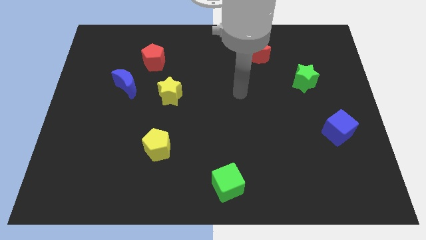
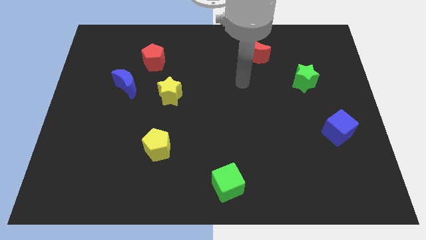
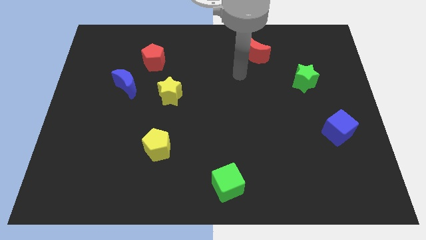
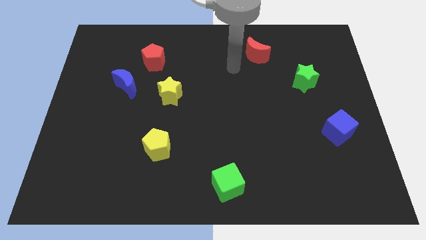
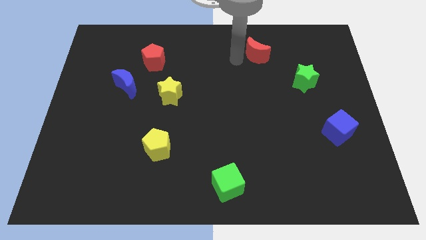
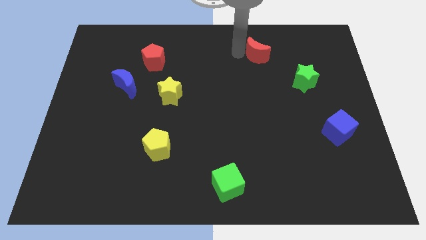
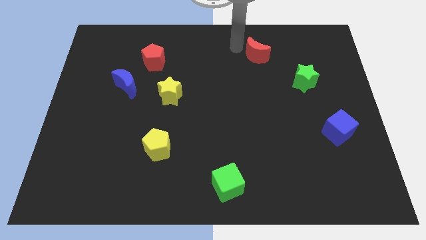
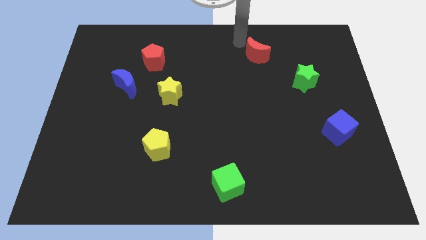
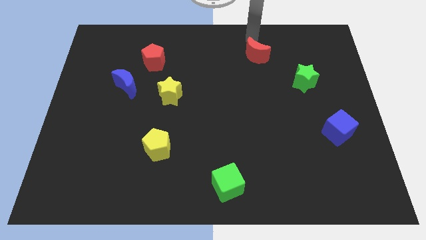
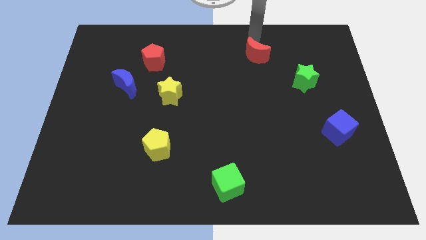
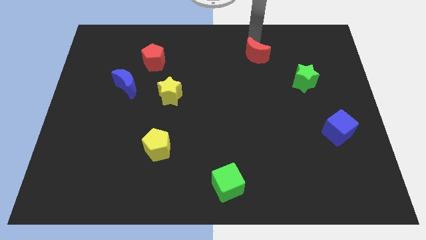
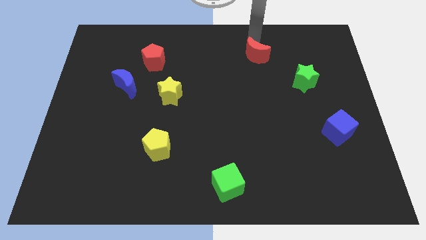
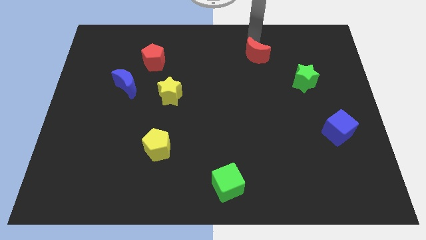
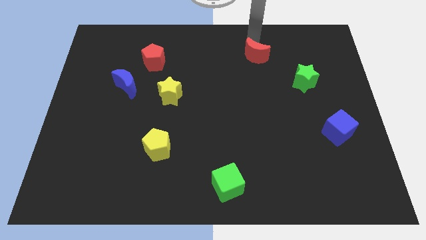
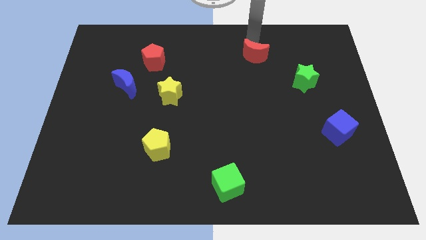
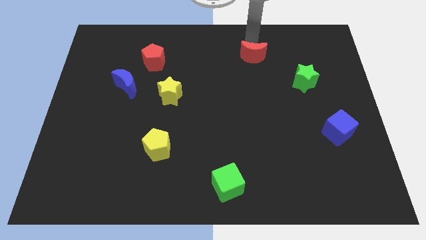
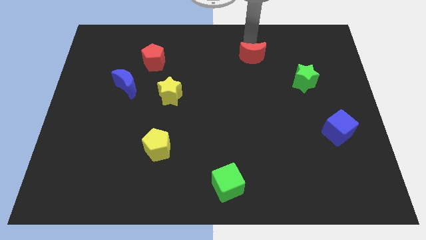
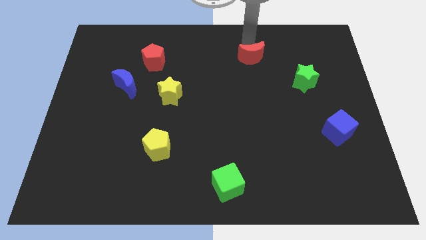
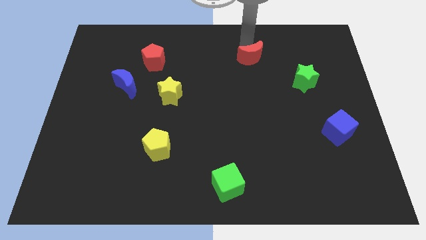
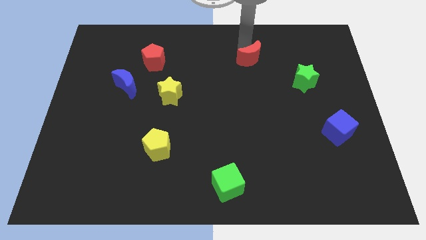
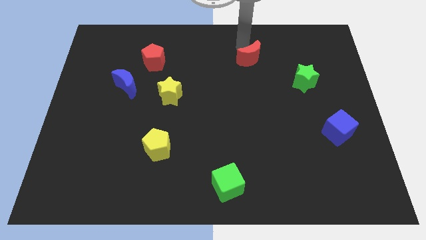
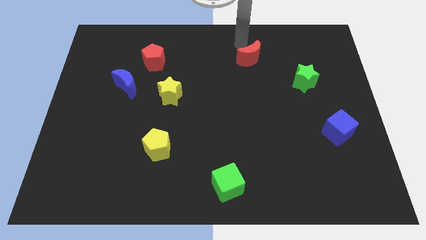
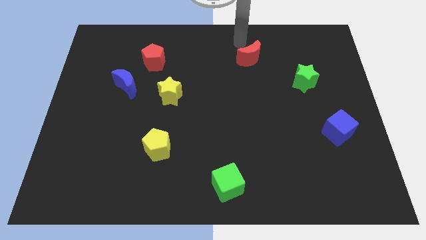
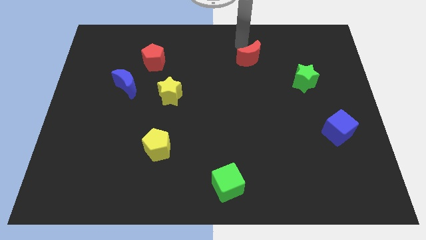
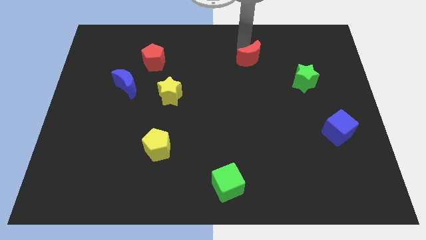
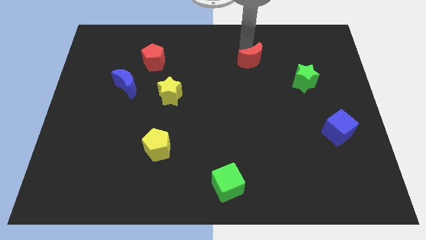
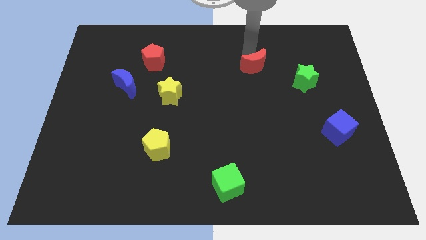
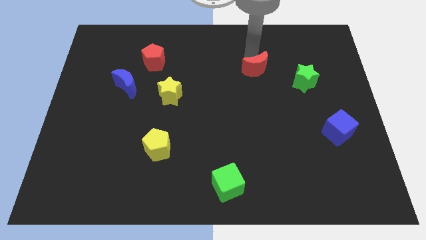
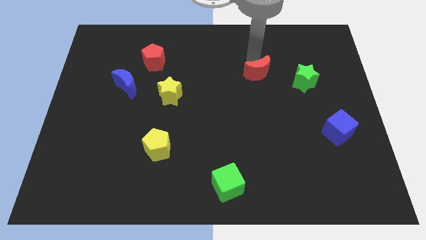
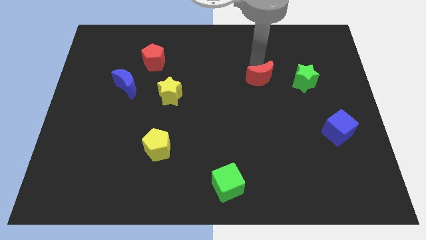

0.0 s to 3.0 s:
move the red moon downwards a little

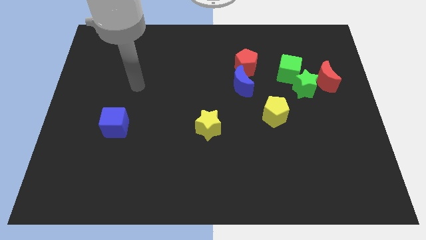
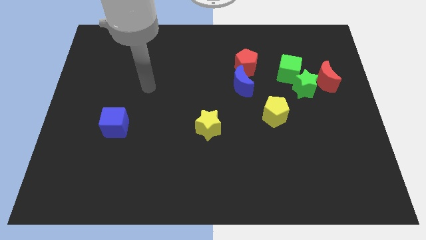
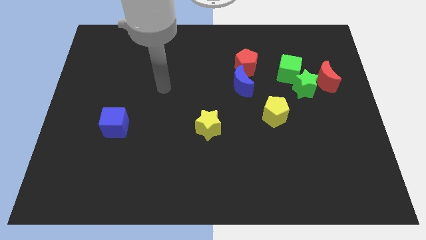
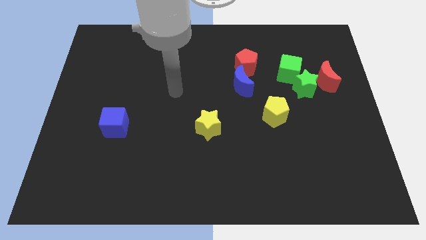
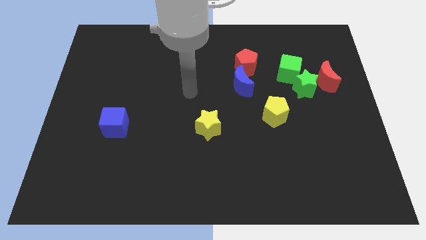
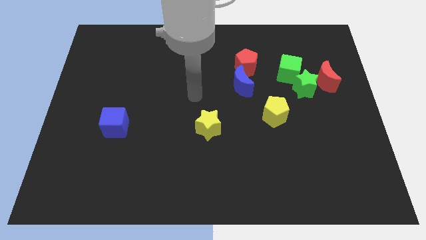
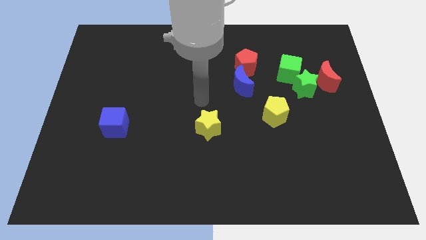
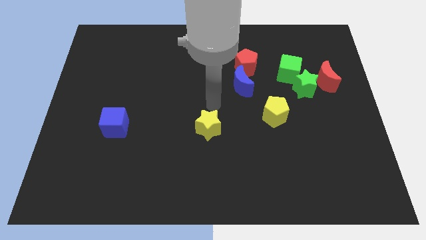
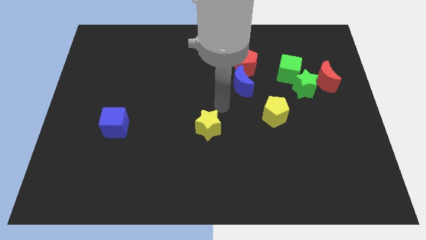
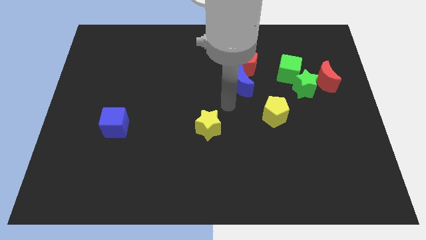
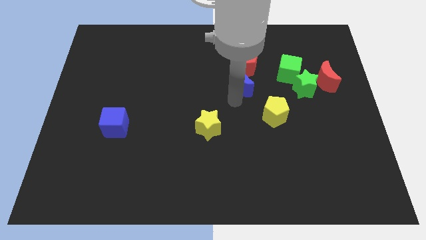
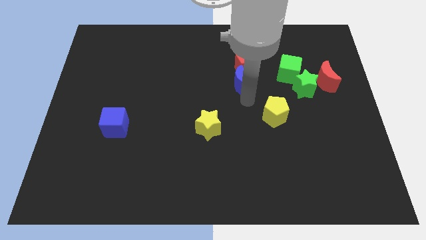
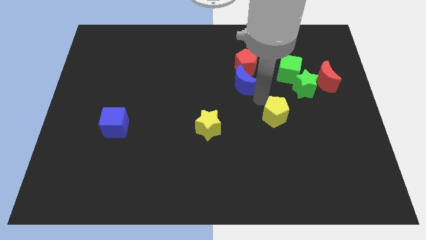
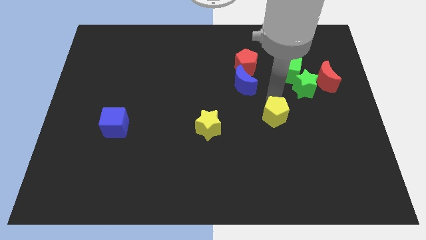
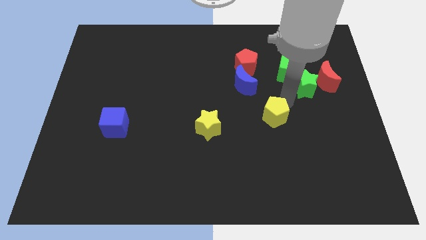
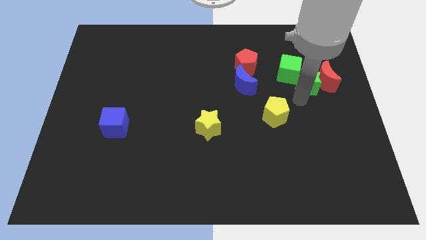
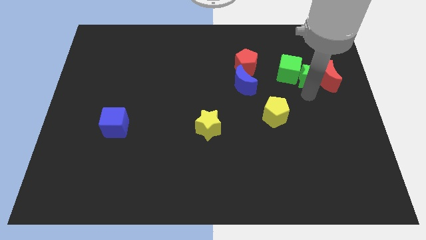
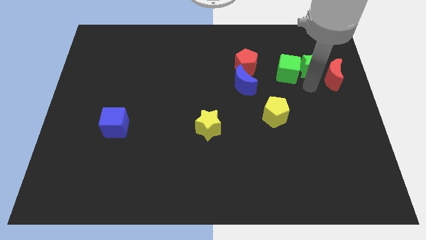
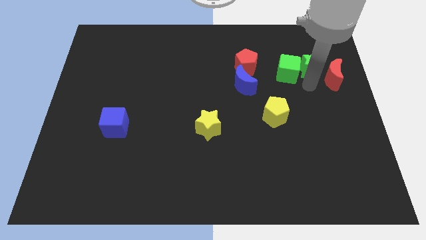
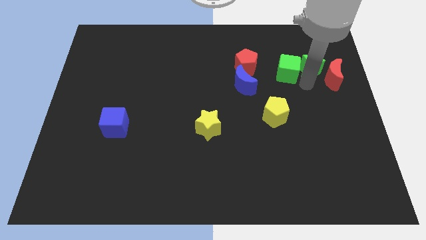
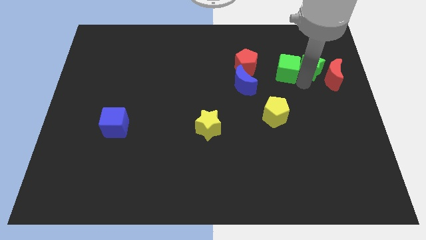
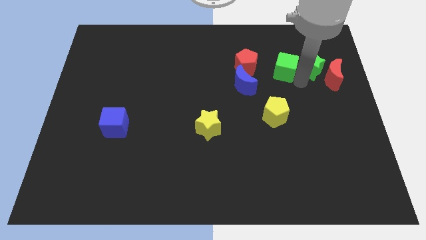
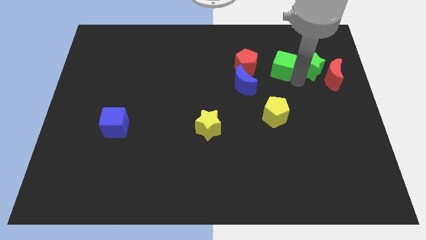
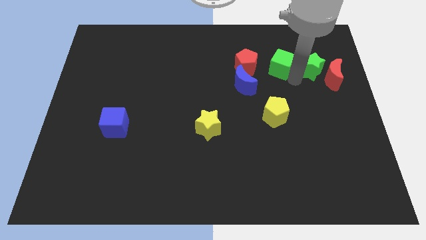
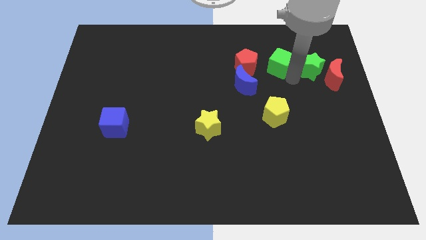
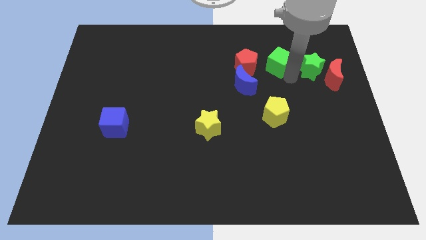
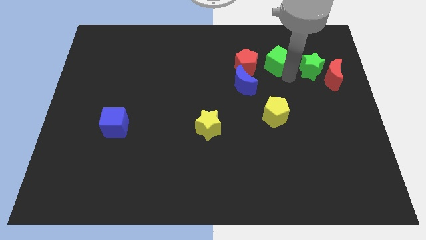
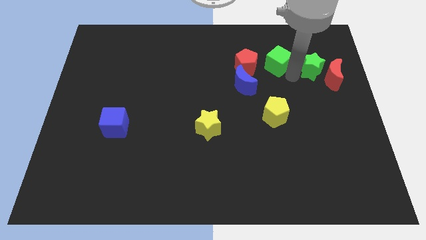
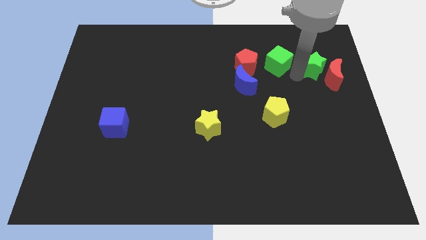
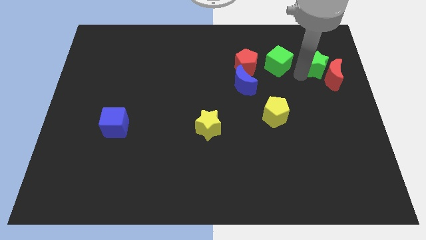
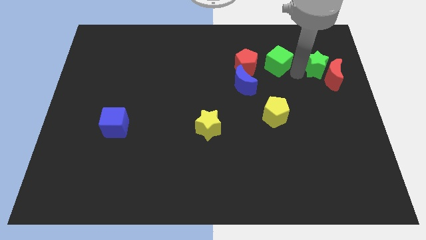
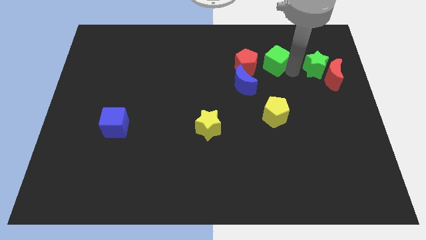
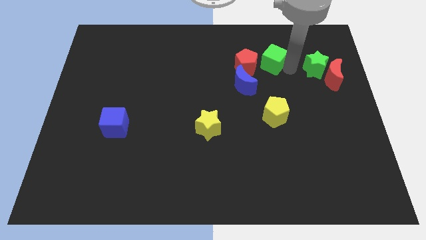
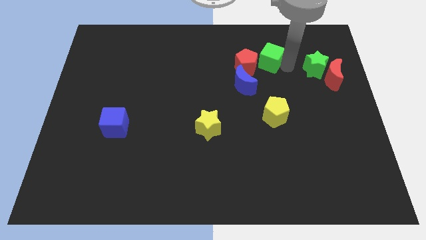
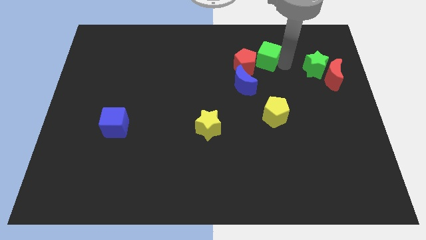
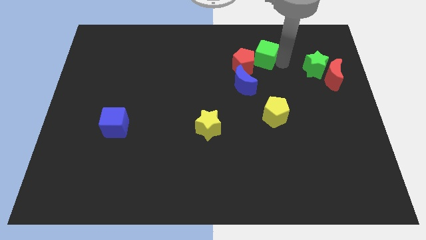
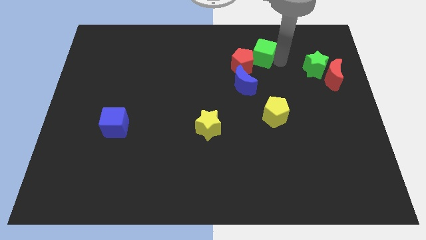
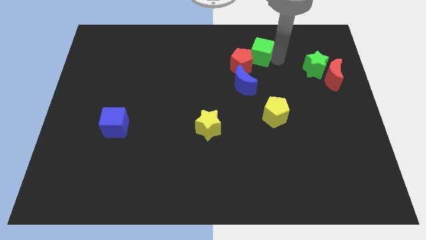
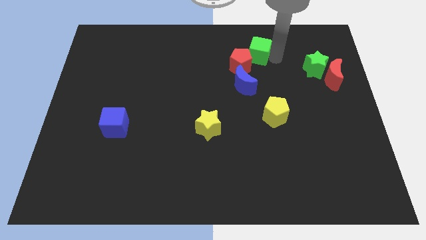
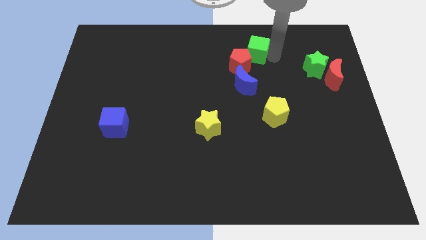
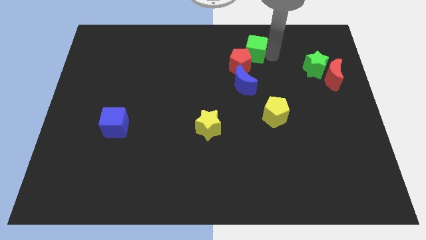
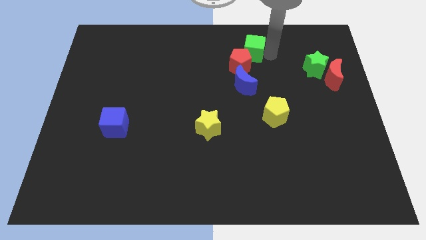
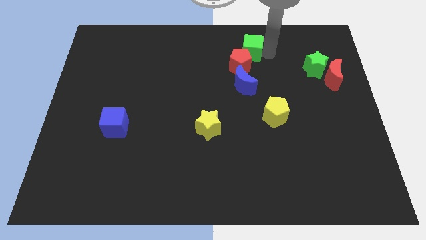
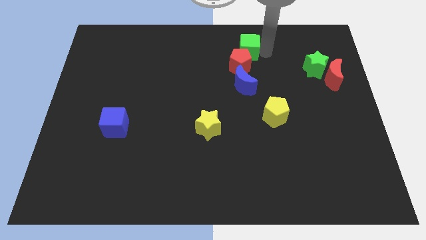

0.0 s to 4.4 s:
slide the green cube left slightly

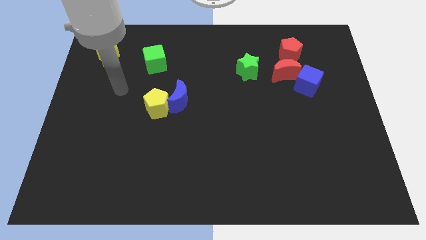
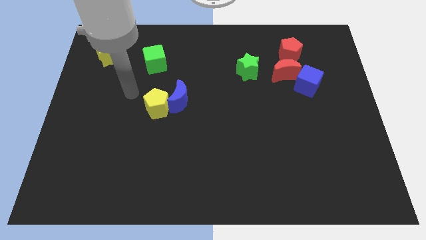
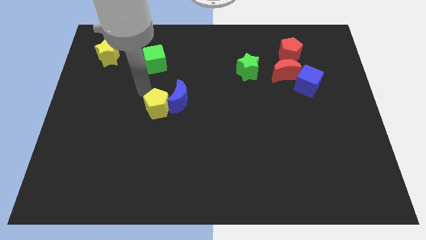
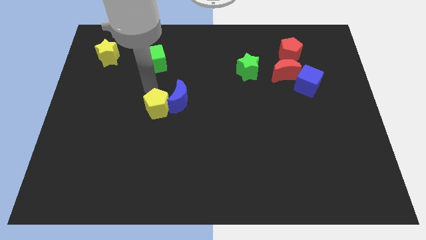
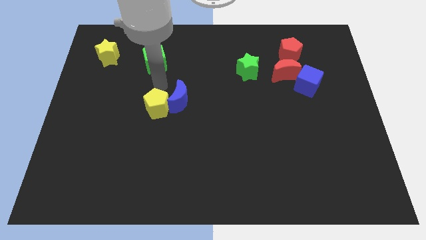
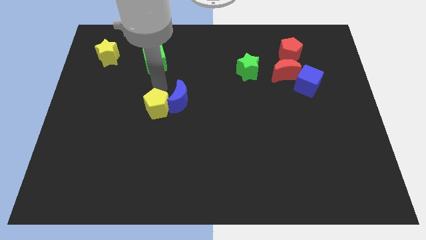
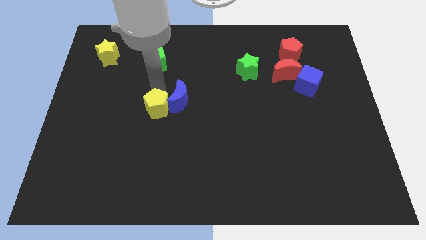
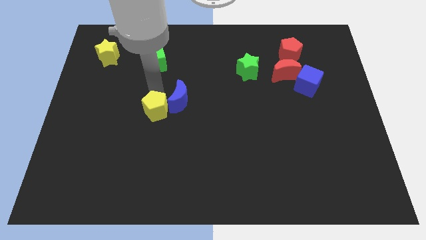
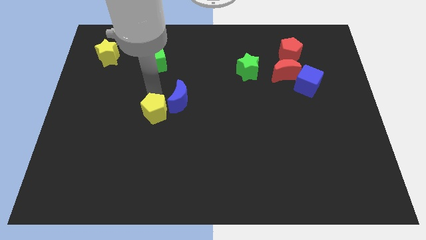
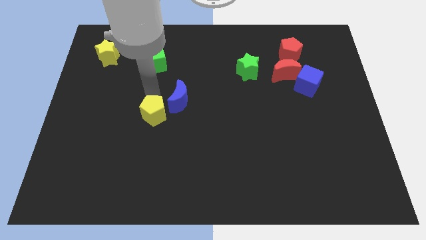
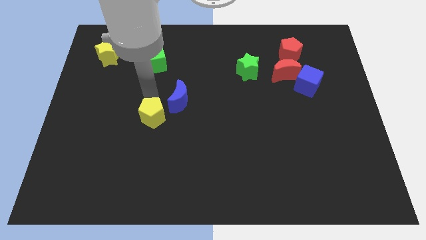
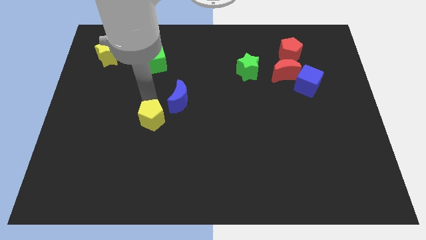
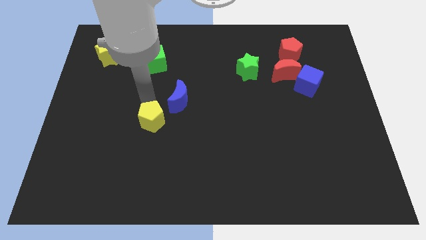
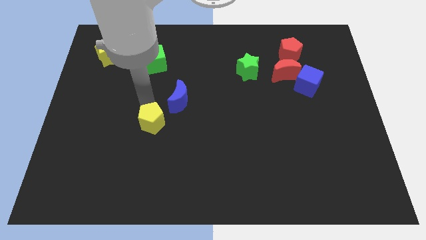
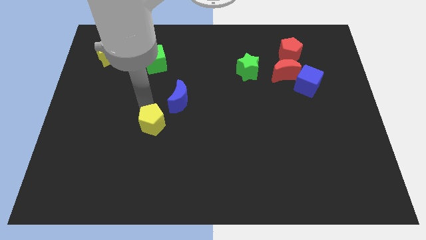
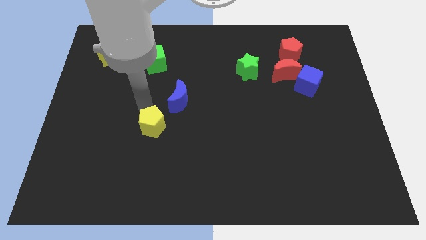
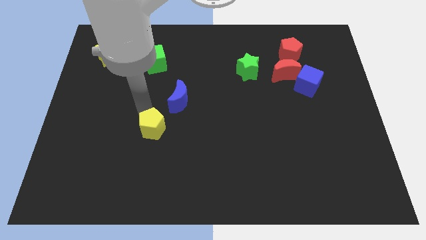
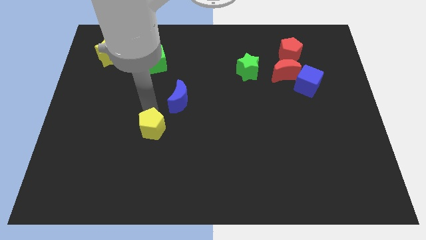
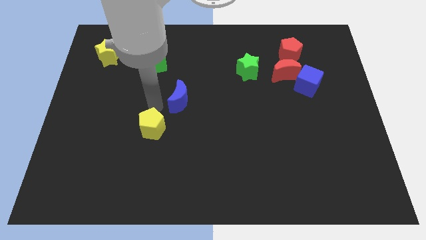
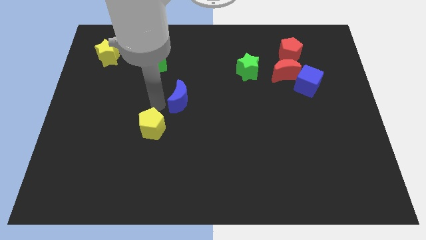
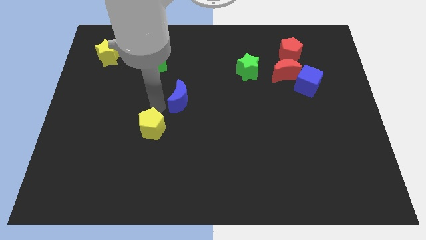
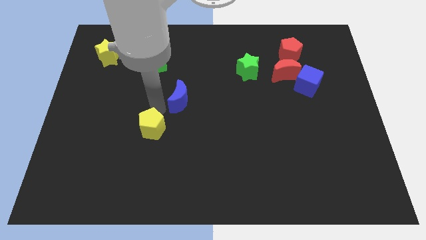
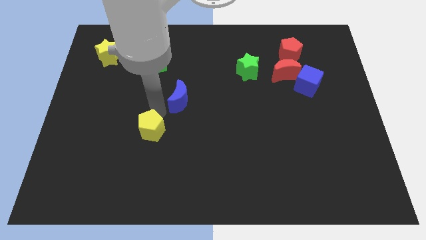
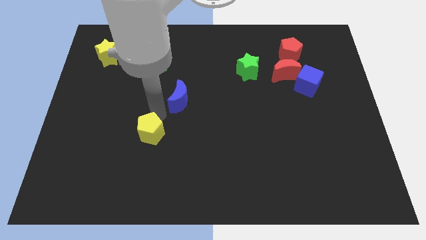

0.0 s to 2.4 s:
slightly push the yellow pentagon down
